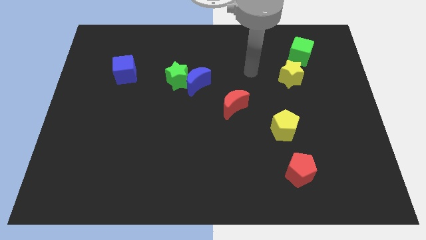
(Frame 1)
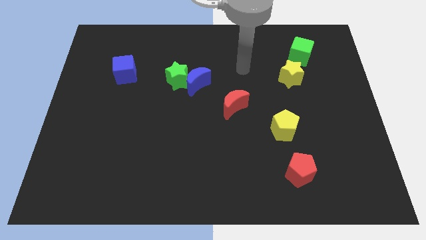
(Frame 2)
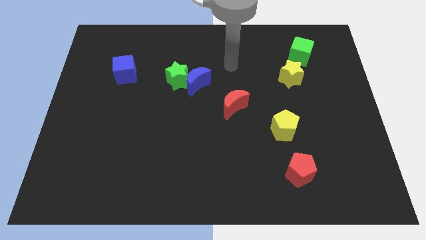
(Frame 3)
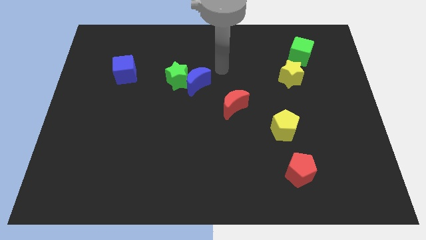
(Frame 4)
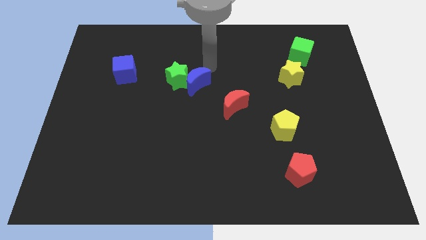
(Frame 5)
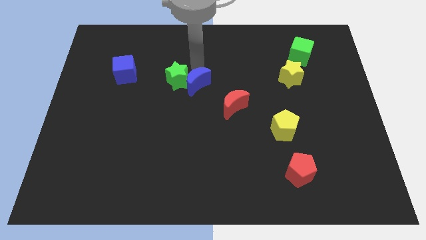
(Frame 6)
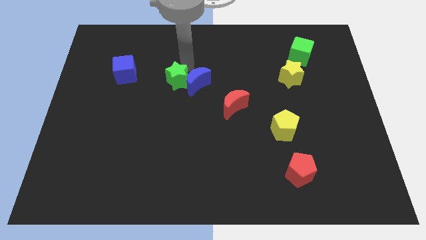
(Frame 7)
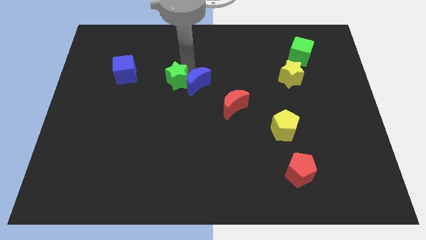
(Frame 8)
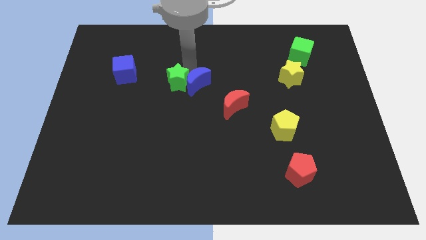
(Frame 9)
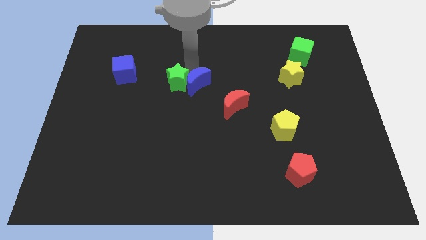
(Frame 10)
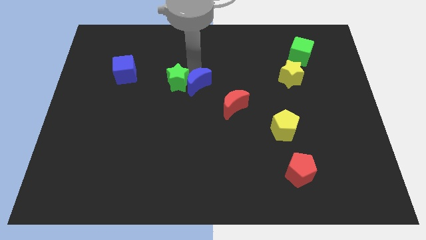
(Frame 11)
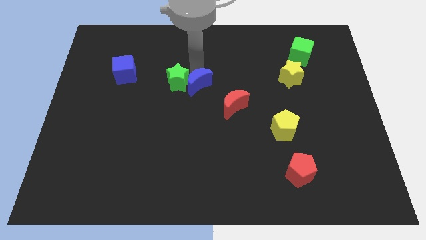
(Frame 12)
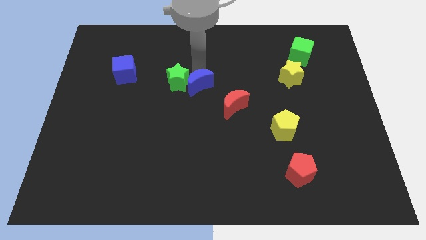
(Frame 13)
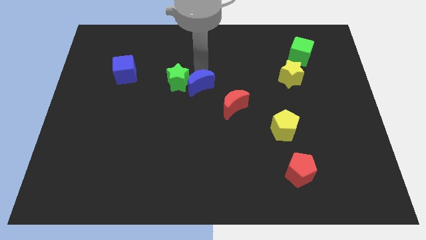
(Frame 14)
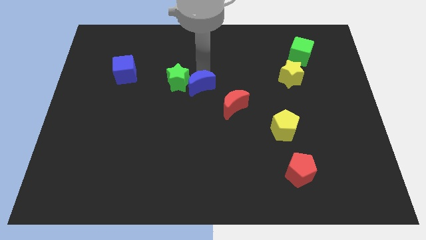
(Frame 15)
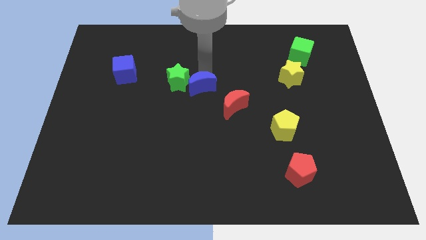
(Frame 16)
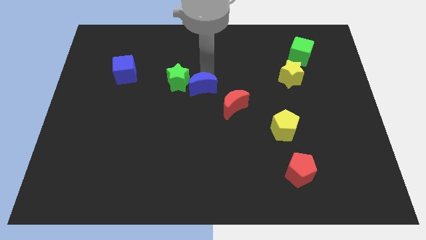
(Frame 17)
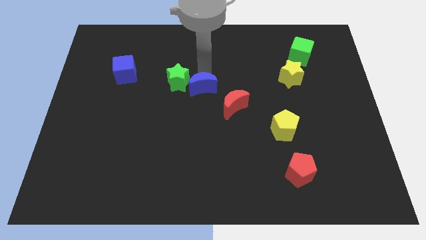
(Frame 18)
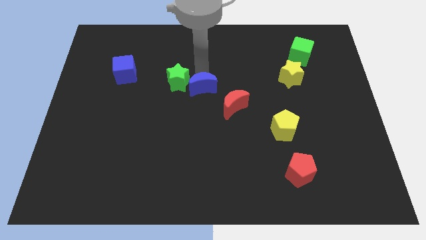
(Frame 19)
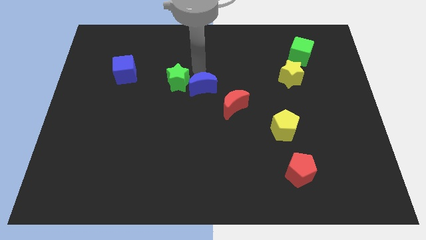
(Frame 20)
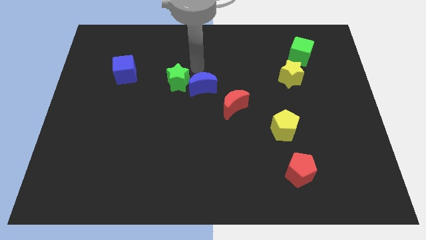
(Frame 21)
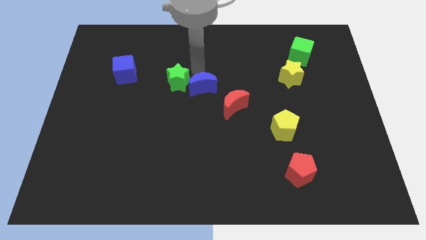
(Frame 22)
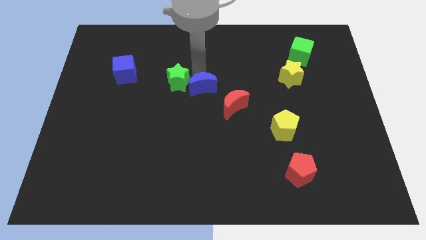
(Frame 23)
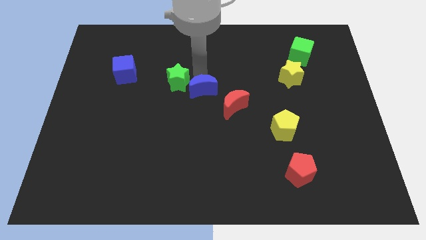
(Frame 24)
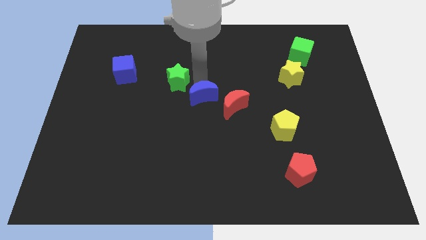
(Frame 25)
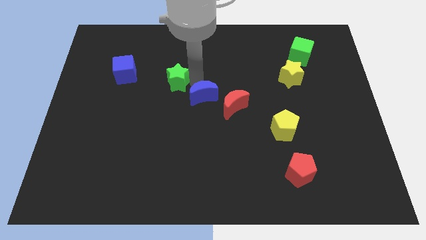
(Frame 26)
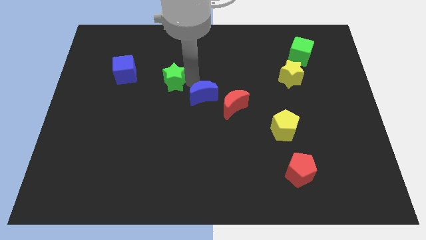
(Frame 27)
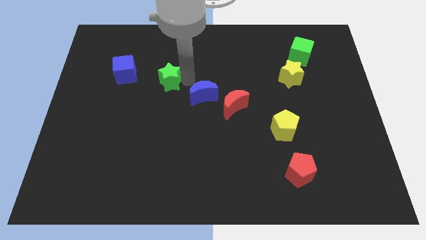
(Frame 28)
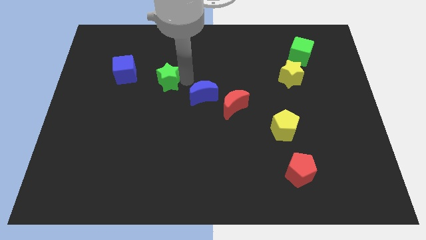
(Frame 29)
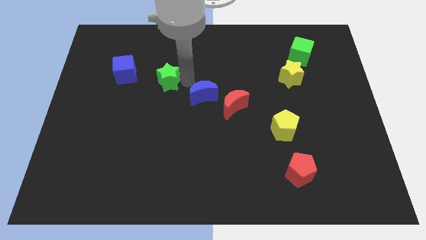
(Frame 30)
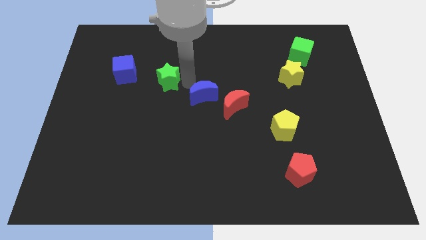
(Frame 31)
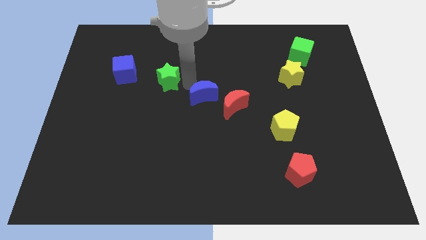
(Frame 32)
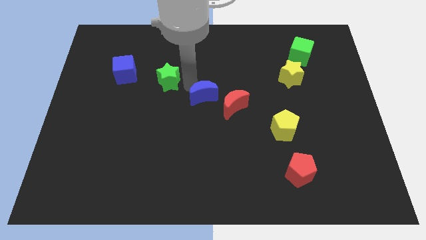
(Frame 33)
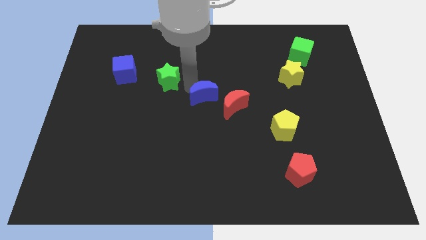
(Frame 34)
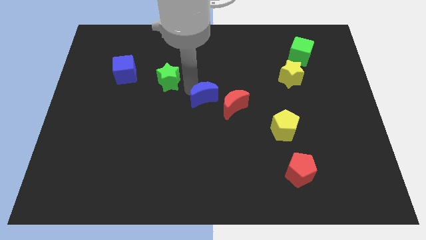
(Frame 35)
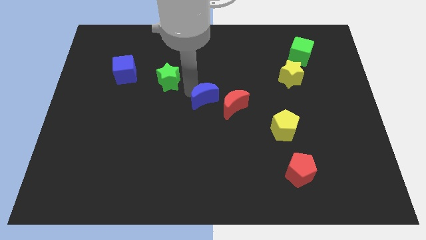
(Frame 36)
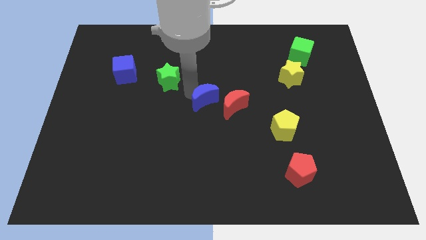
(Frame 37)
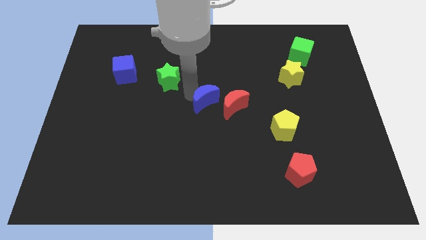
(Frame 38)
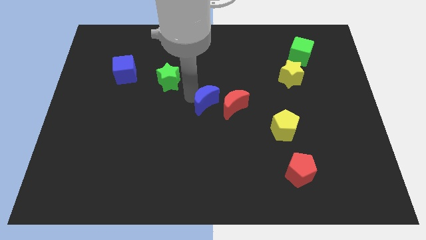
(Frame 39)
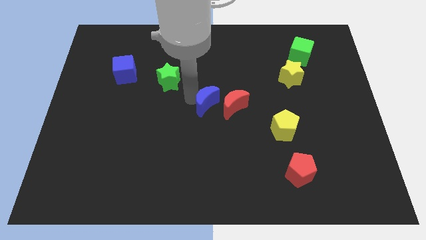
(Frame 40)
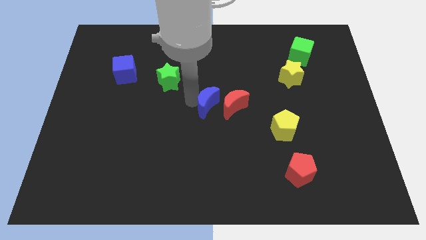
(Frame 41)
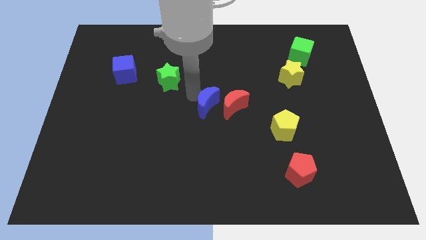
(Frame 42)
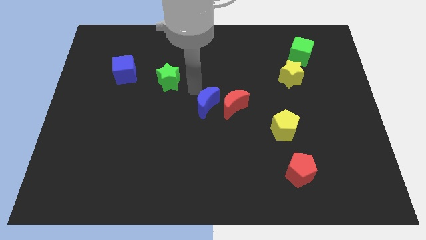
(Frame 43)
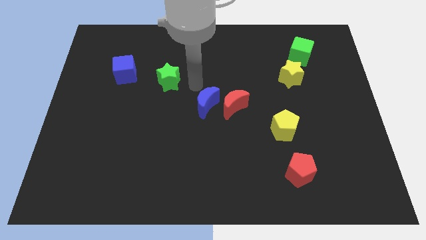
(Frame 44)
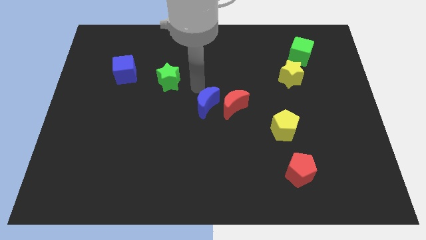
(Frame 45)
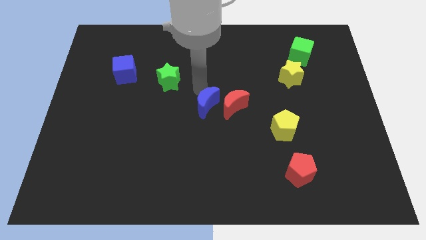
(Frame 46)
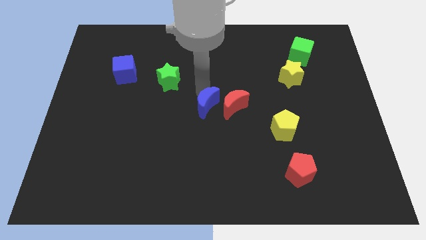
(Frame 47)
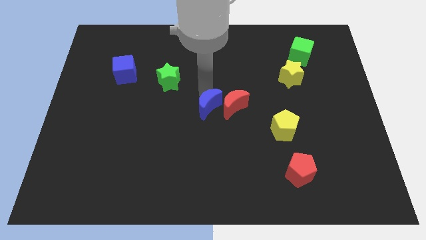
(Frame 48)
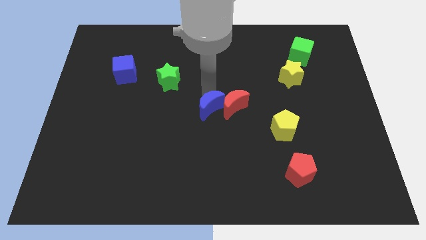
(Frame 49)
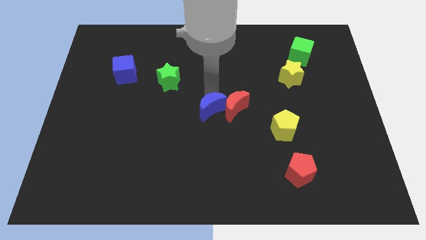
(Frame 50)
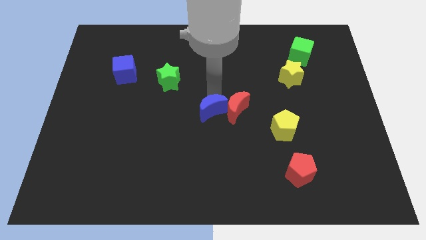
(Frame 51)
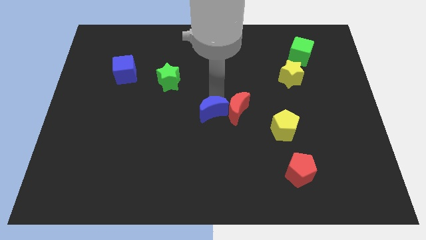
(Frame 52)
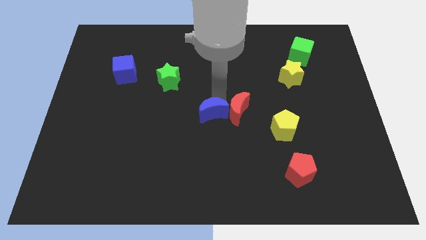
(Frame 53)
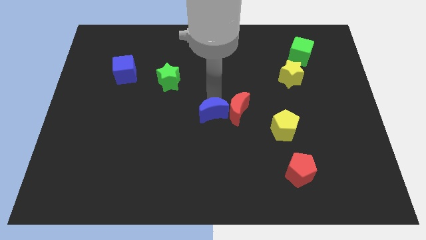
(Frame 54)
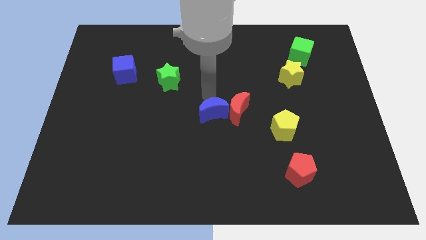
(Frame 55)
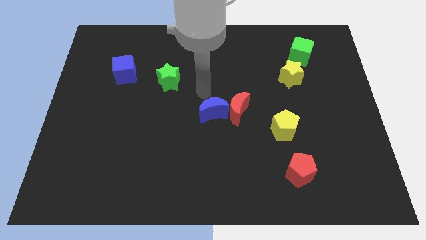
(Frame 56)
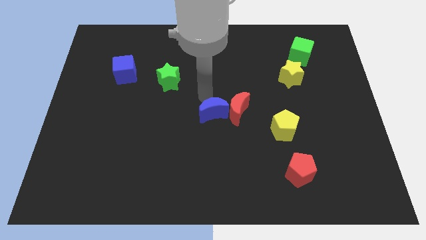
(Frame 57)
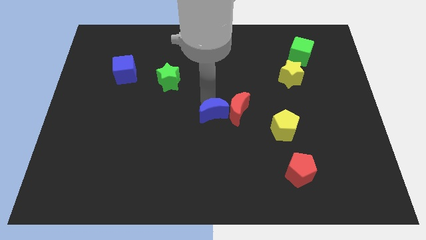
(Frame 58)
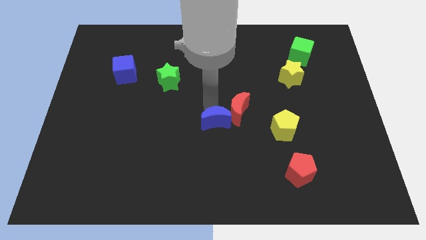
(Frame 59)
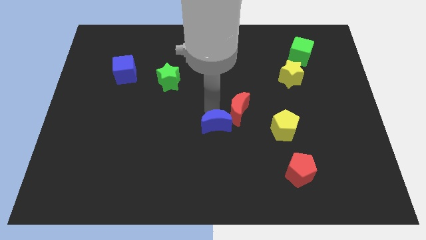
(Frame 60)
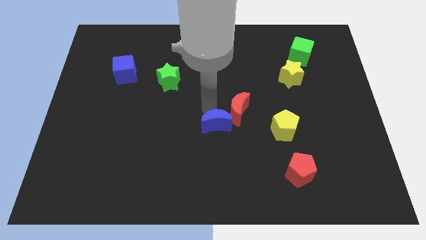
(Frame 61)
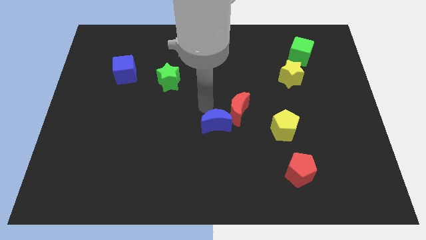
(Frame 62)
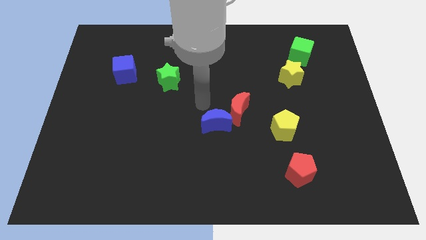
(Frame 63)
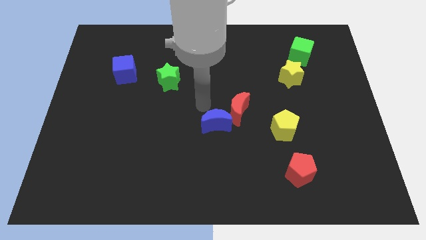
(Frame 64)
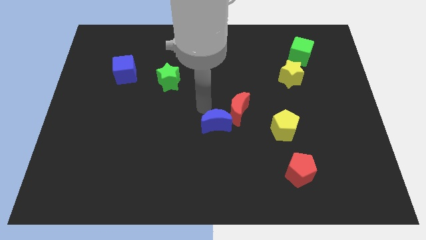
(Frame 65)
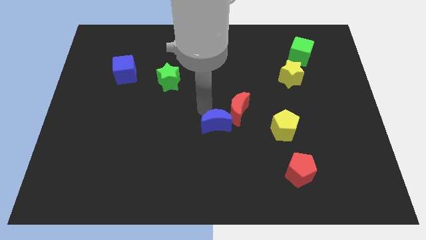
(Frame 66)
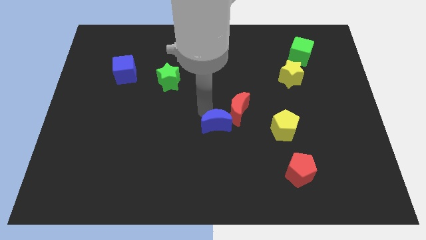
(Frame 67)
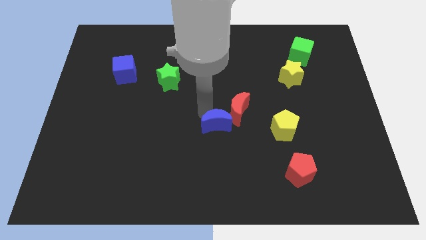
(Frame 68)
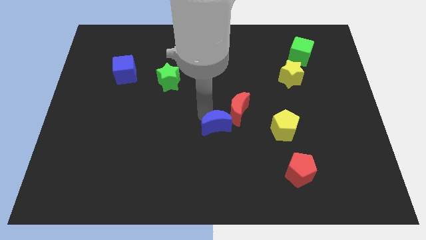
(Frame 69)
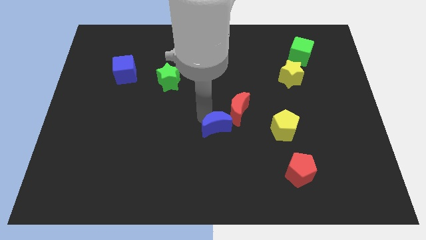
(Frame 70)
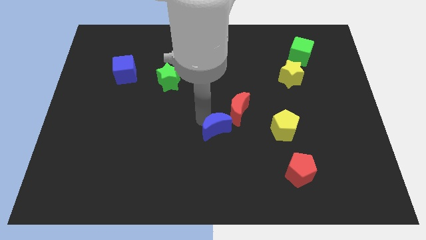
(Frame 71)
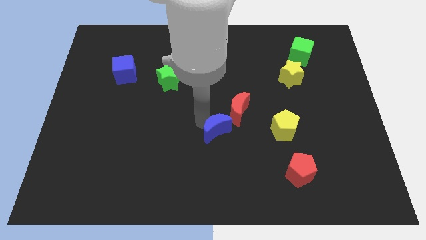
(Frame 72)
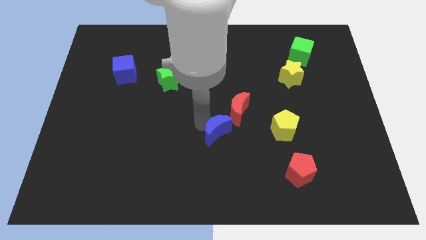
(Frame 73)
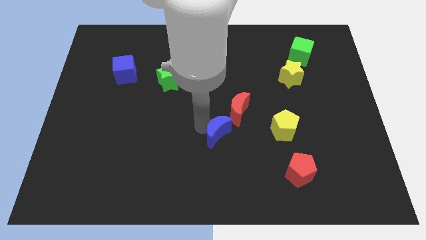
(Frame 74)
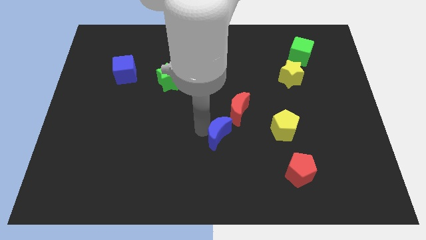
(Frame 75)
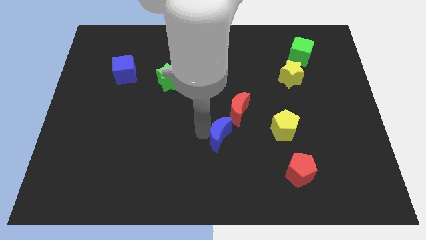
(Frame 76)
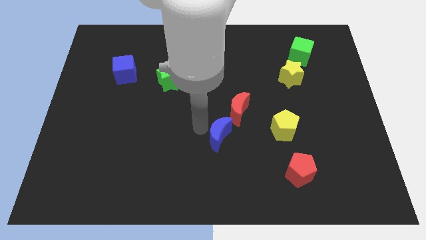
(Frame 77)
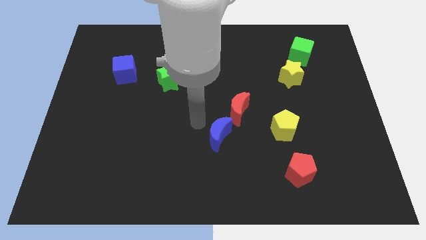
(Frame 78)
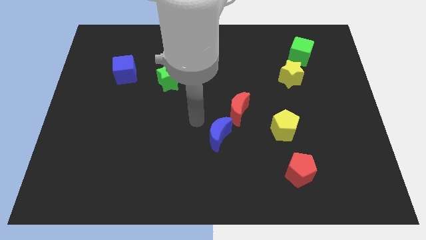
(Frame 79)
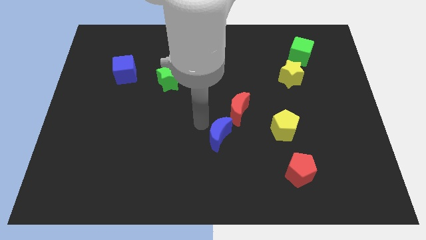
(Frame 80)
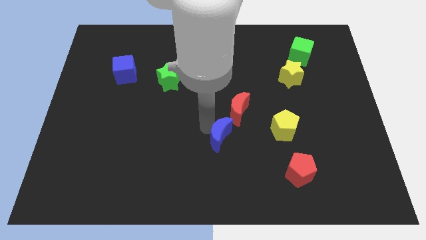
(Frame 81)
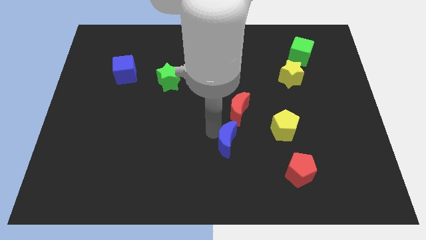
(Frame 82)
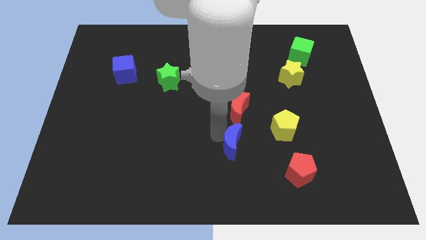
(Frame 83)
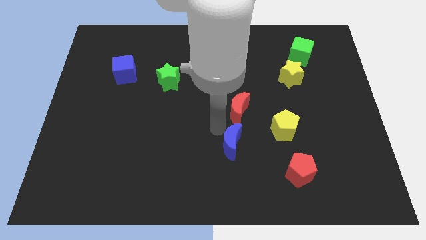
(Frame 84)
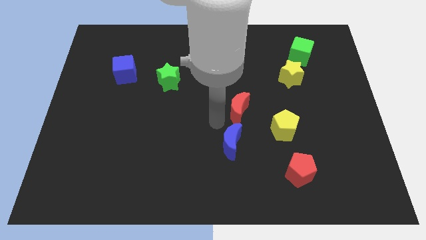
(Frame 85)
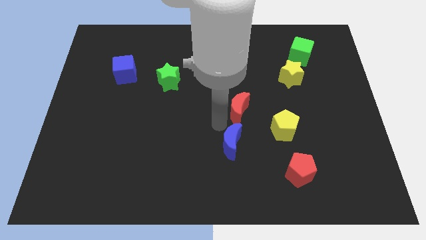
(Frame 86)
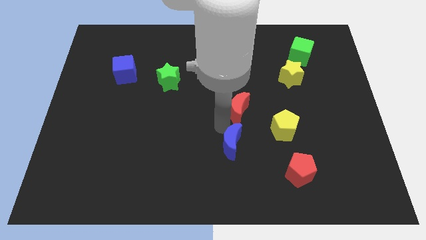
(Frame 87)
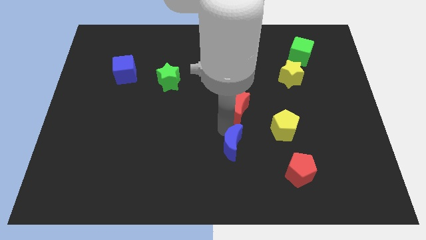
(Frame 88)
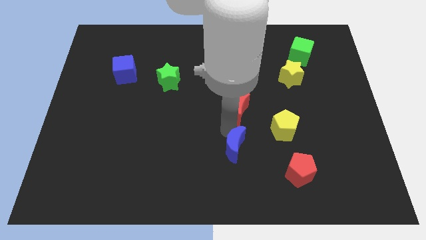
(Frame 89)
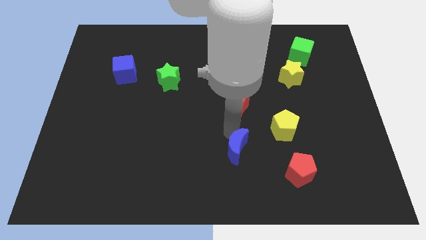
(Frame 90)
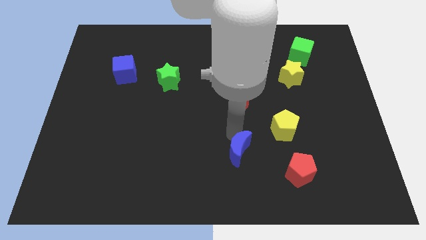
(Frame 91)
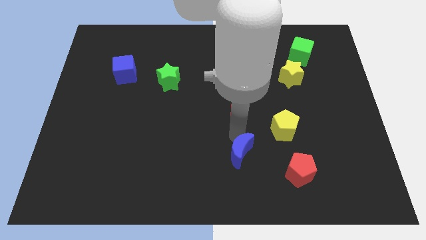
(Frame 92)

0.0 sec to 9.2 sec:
slide the blue moon to the left side of the red pentagon
